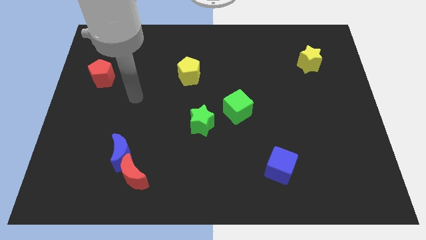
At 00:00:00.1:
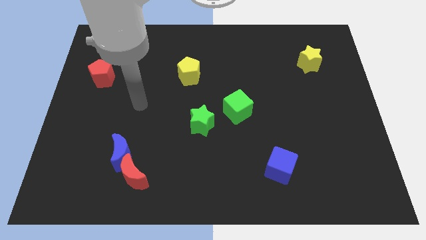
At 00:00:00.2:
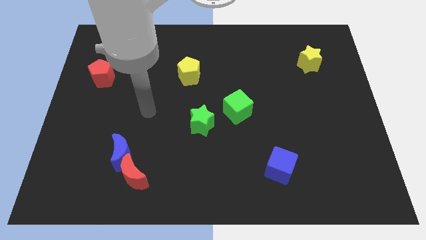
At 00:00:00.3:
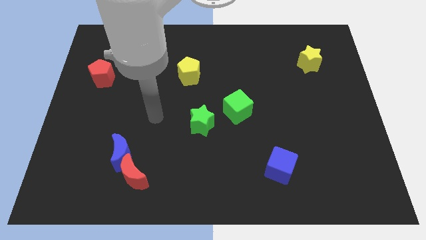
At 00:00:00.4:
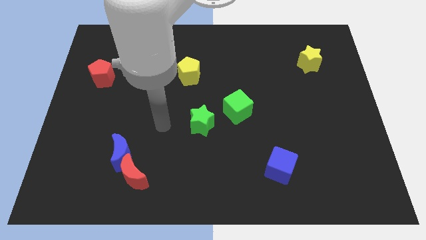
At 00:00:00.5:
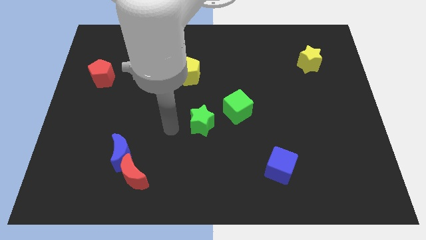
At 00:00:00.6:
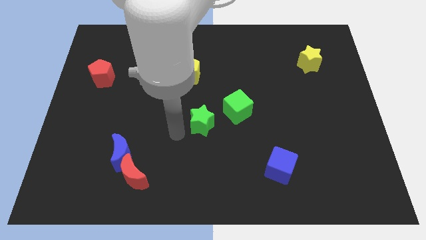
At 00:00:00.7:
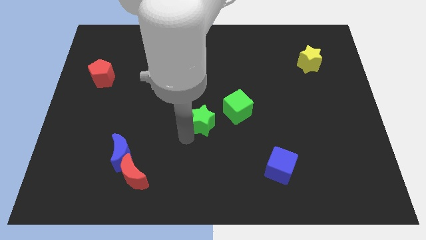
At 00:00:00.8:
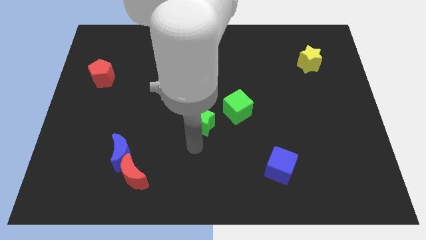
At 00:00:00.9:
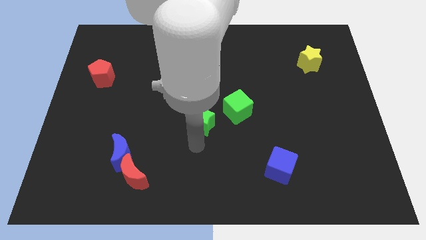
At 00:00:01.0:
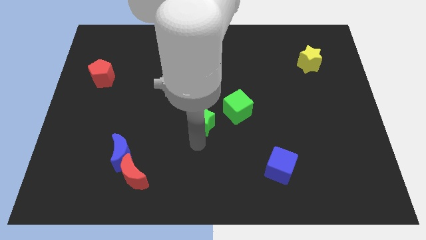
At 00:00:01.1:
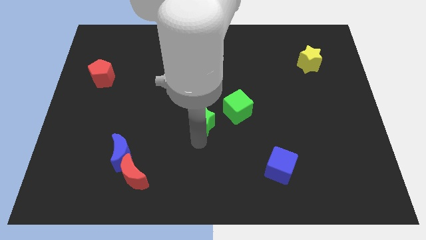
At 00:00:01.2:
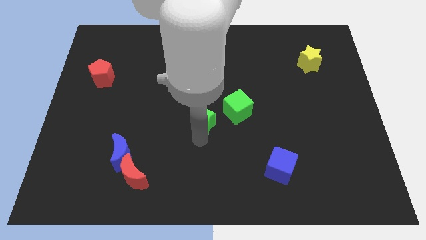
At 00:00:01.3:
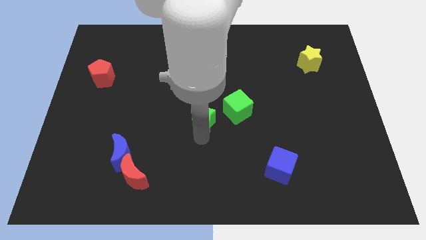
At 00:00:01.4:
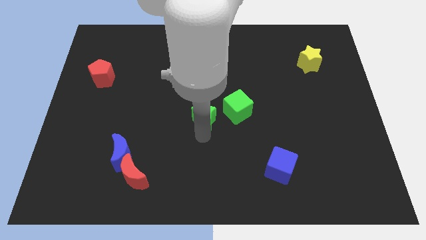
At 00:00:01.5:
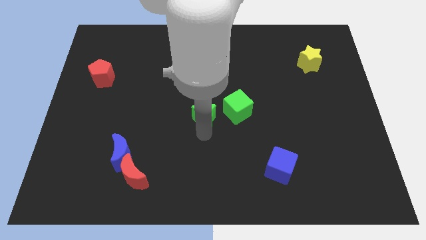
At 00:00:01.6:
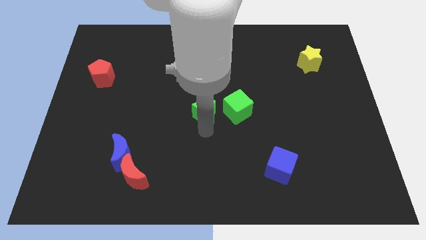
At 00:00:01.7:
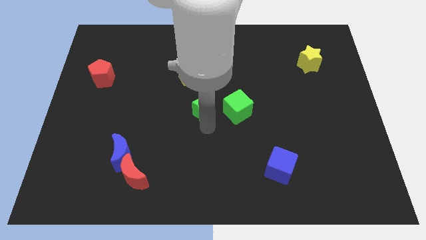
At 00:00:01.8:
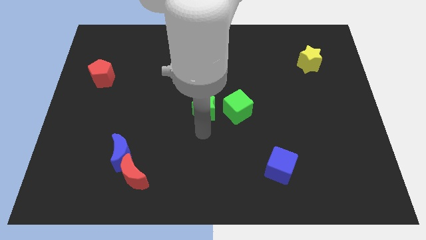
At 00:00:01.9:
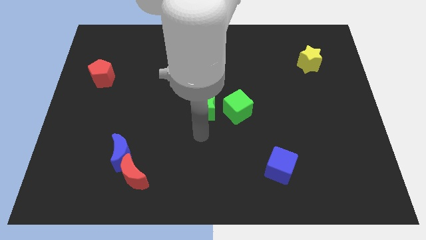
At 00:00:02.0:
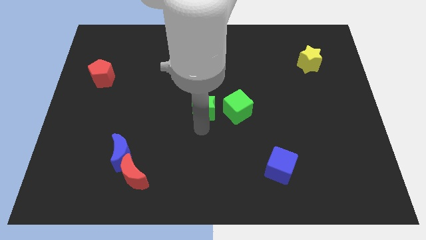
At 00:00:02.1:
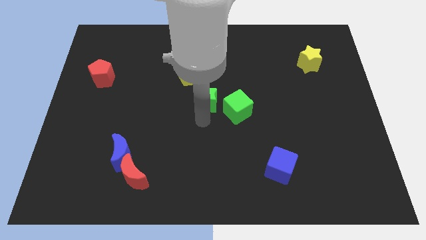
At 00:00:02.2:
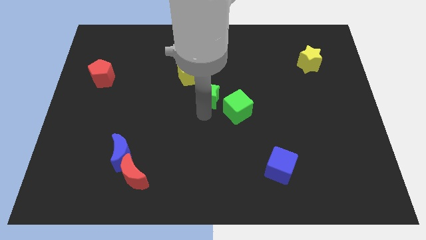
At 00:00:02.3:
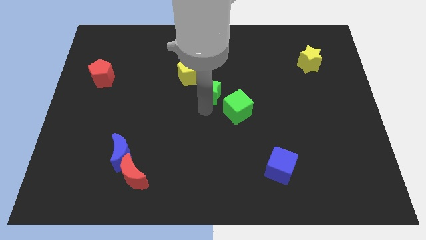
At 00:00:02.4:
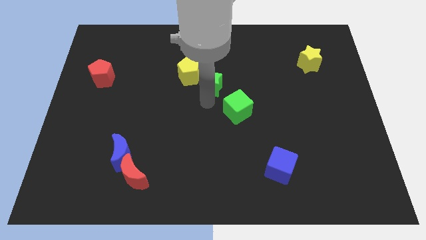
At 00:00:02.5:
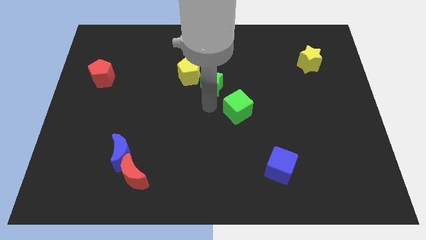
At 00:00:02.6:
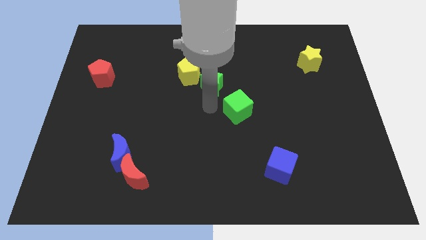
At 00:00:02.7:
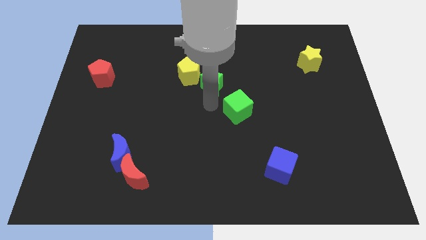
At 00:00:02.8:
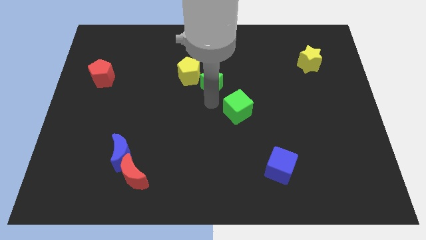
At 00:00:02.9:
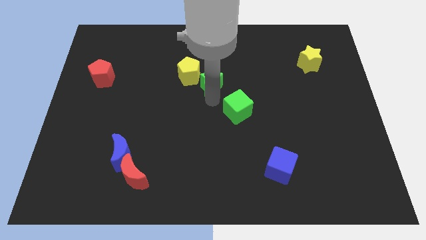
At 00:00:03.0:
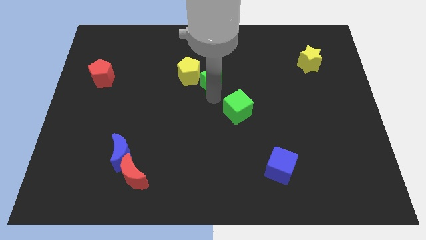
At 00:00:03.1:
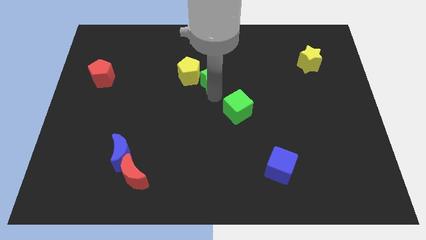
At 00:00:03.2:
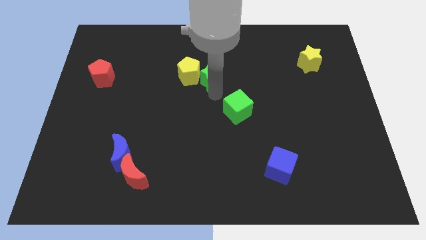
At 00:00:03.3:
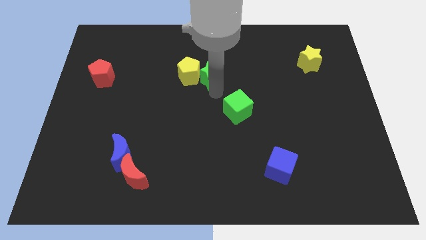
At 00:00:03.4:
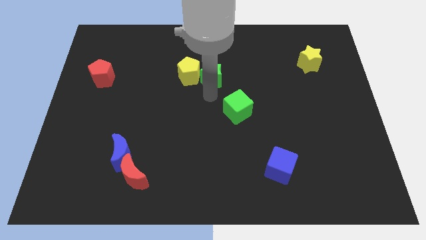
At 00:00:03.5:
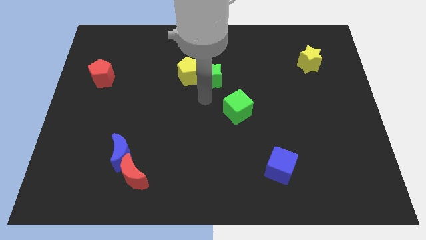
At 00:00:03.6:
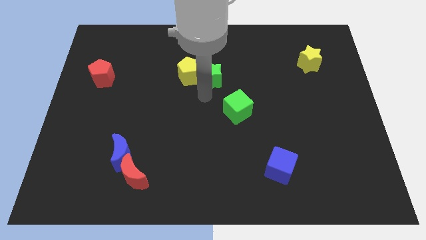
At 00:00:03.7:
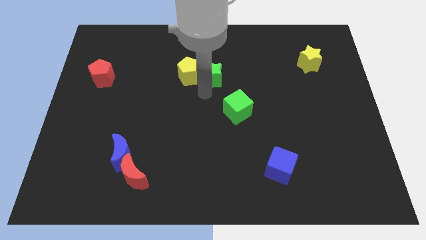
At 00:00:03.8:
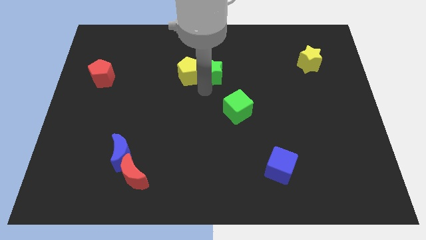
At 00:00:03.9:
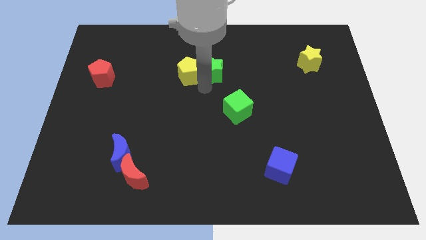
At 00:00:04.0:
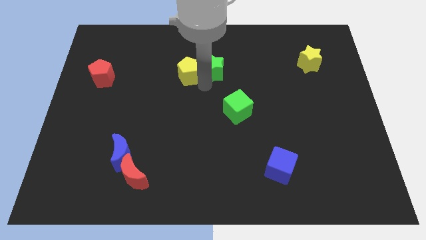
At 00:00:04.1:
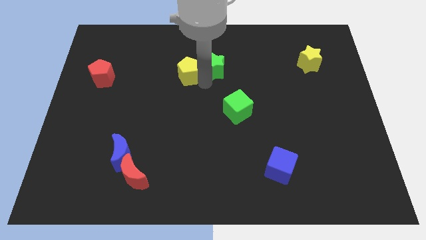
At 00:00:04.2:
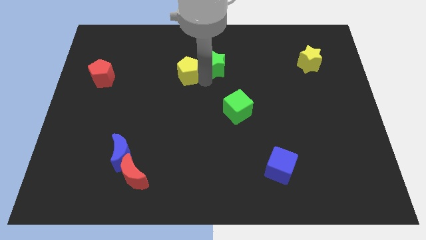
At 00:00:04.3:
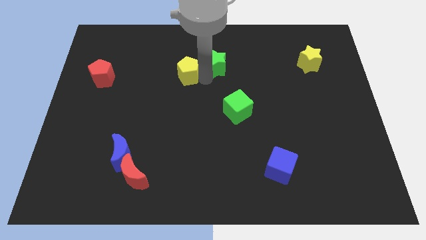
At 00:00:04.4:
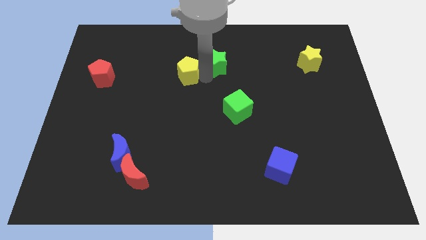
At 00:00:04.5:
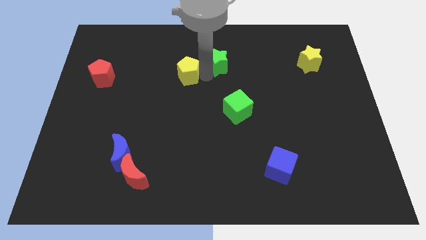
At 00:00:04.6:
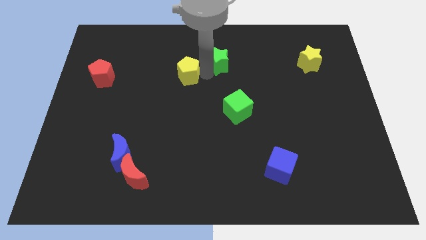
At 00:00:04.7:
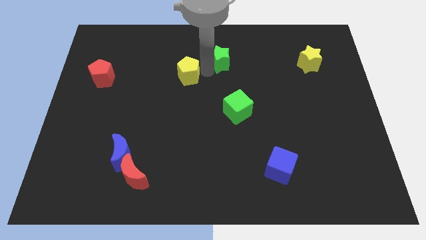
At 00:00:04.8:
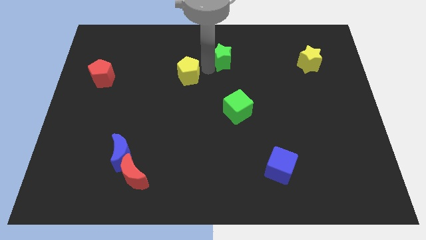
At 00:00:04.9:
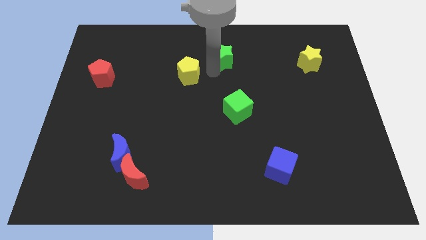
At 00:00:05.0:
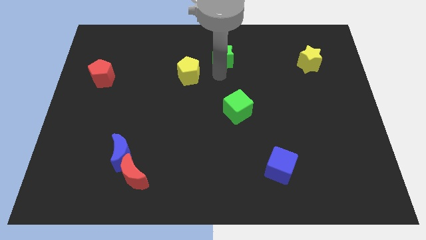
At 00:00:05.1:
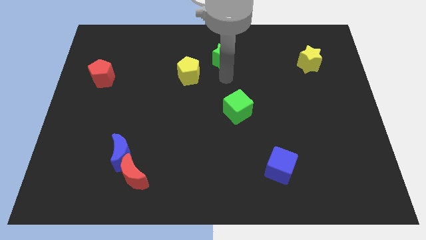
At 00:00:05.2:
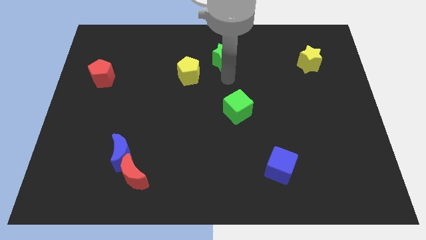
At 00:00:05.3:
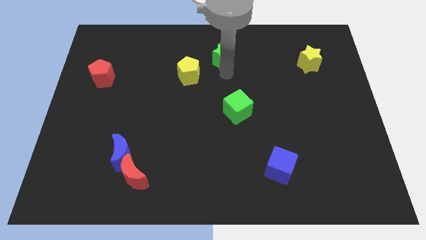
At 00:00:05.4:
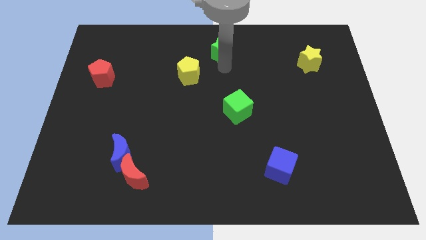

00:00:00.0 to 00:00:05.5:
move the green star to the top
